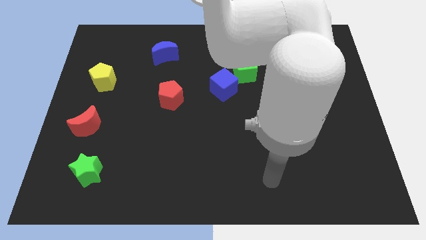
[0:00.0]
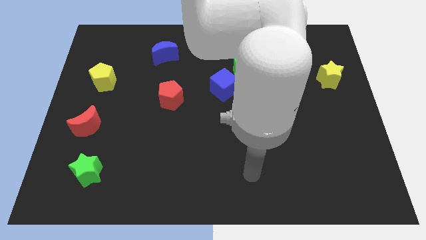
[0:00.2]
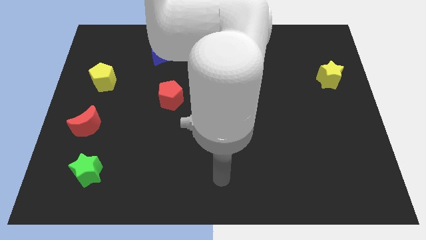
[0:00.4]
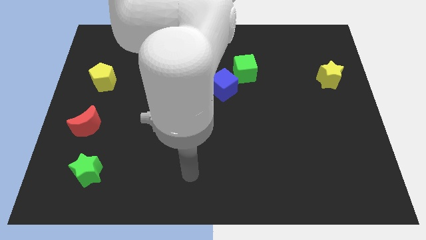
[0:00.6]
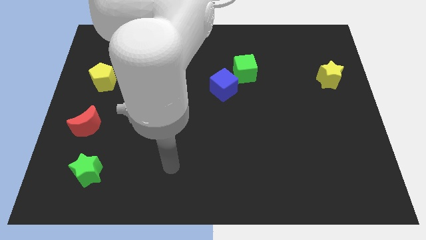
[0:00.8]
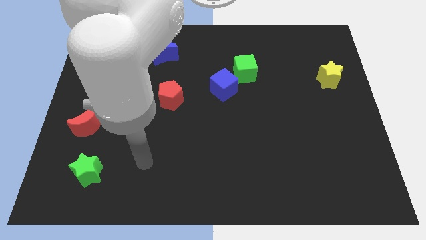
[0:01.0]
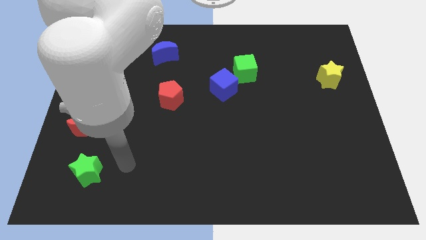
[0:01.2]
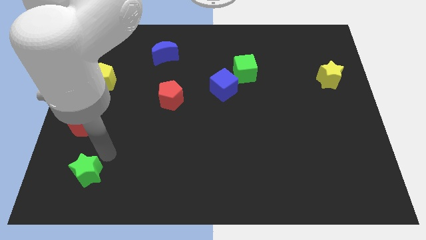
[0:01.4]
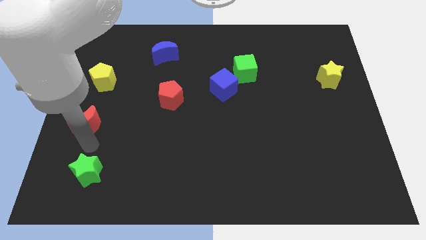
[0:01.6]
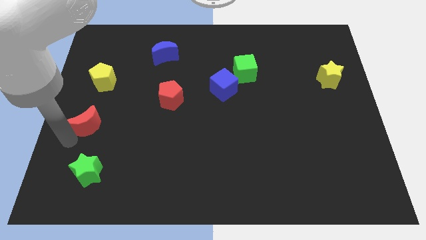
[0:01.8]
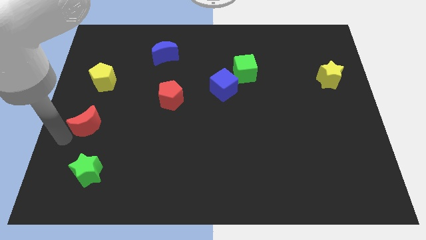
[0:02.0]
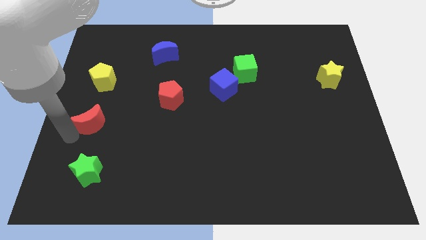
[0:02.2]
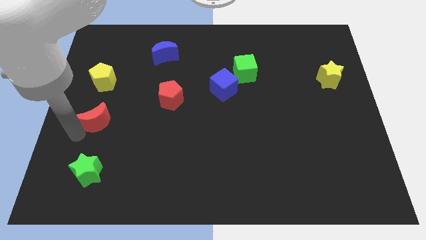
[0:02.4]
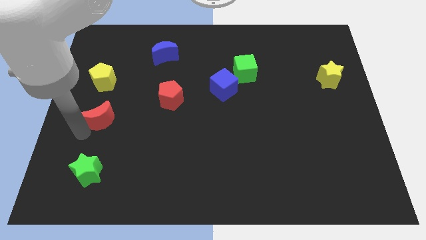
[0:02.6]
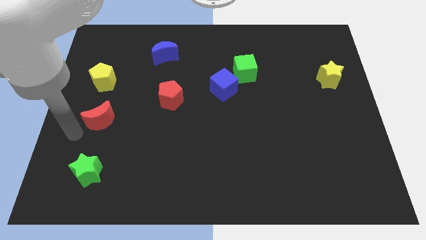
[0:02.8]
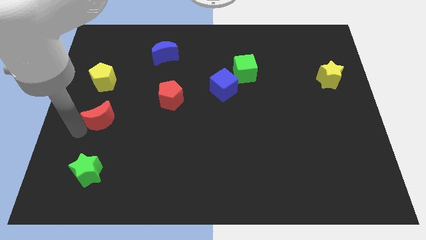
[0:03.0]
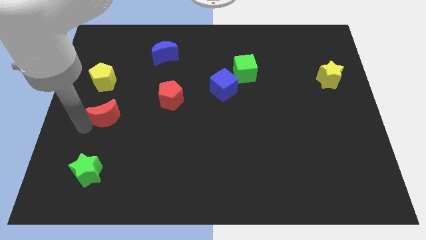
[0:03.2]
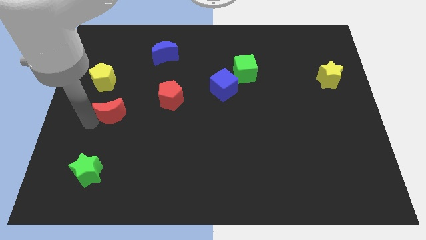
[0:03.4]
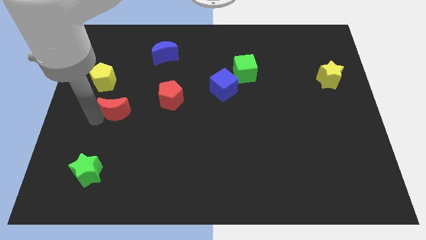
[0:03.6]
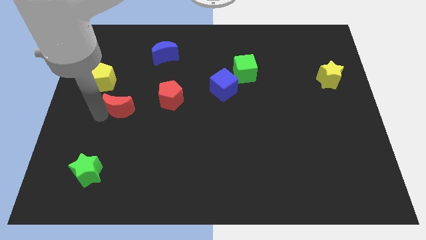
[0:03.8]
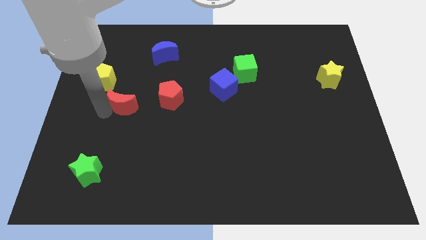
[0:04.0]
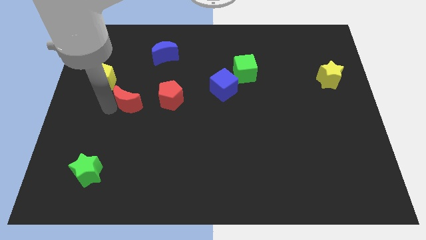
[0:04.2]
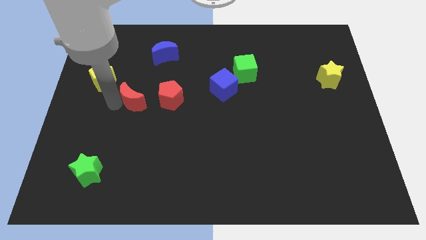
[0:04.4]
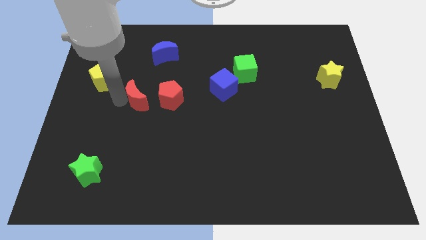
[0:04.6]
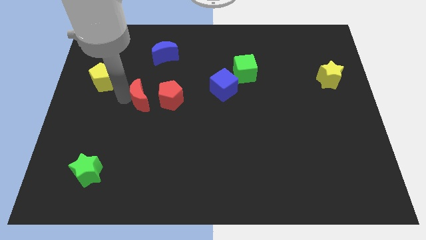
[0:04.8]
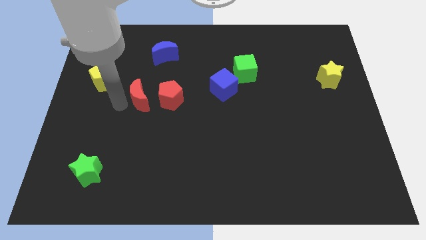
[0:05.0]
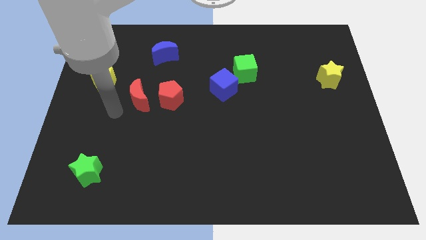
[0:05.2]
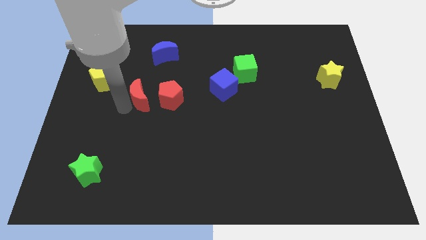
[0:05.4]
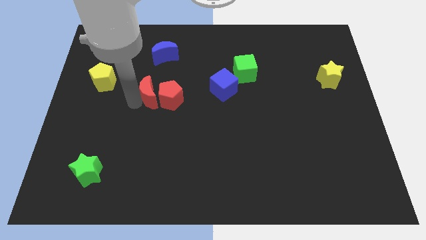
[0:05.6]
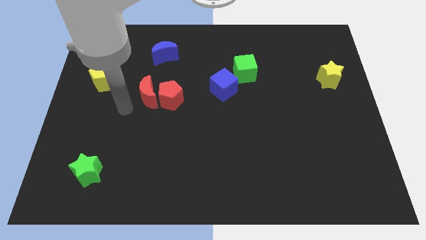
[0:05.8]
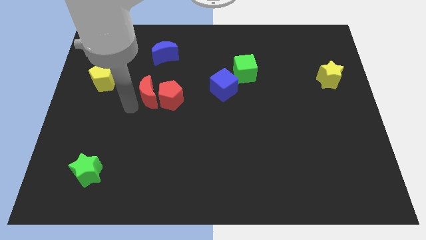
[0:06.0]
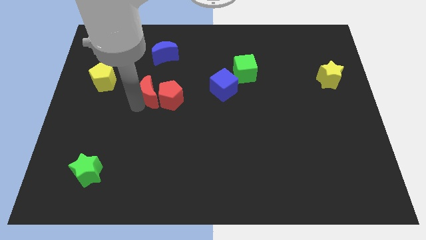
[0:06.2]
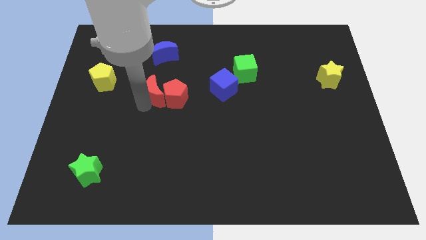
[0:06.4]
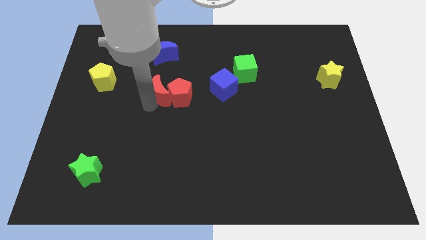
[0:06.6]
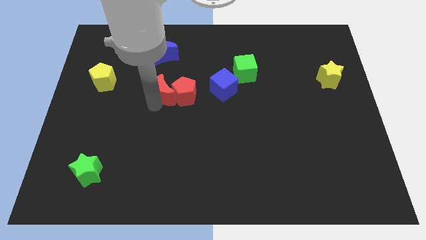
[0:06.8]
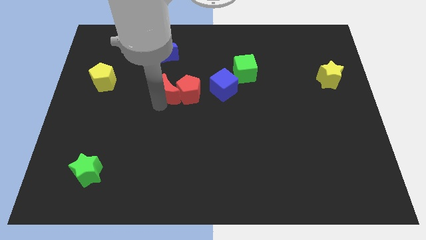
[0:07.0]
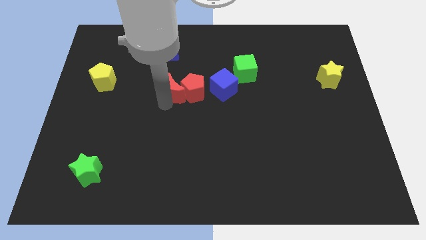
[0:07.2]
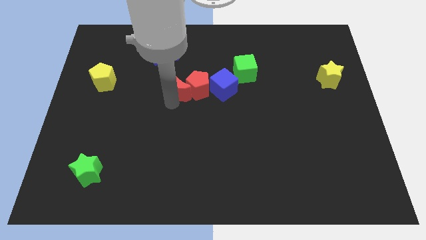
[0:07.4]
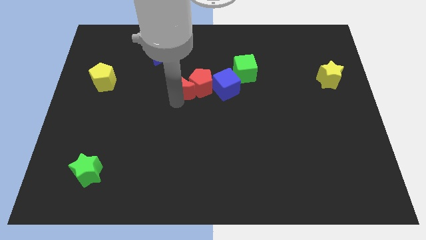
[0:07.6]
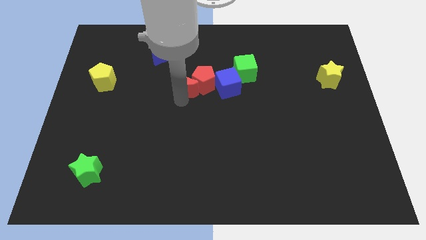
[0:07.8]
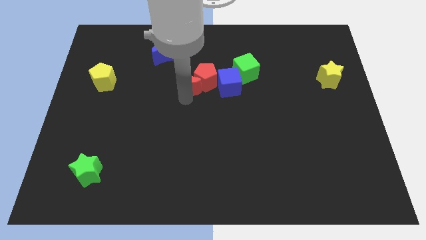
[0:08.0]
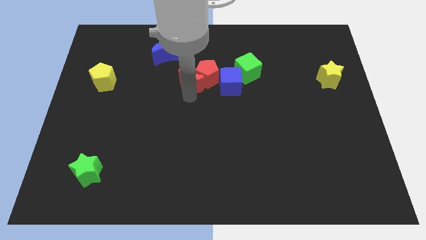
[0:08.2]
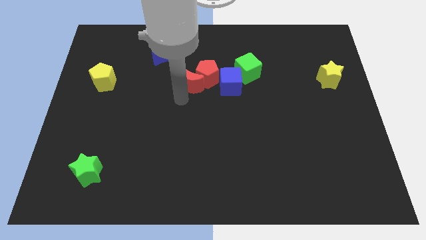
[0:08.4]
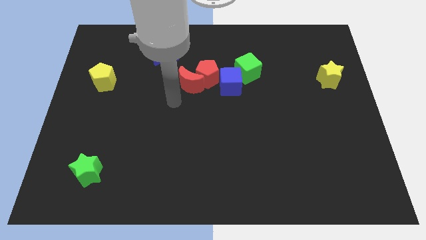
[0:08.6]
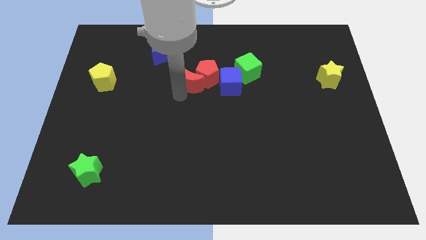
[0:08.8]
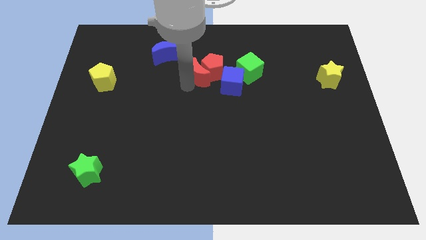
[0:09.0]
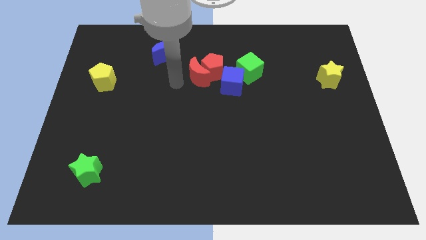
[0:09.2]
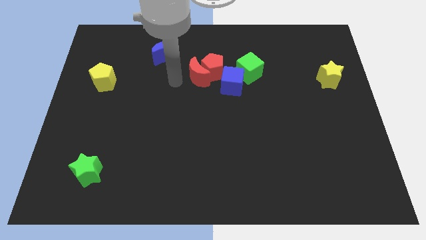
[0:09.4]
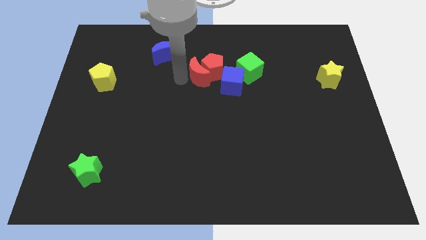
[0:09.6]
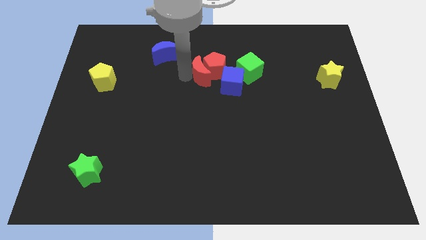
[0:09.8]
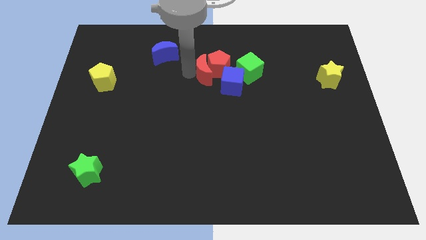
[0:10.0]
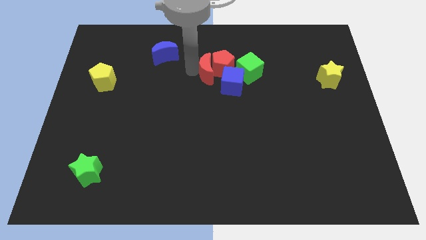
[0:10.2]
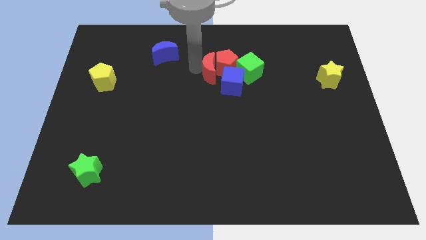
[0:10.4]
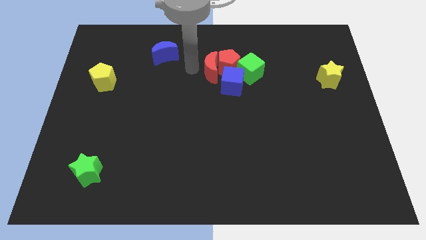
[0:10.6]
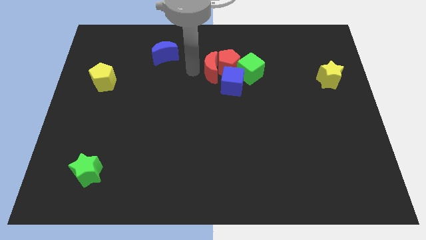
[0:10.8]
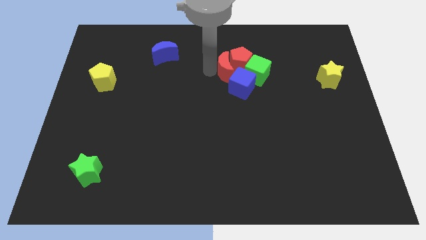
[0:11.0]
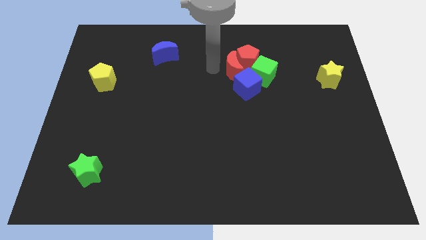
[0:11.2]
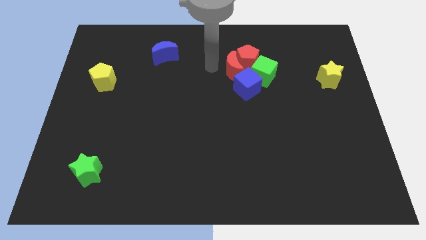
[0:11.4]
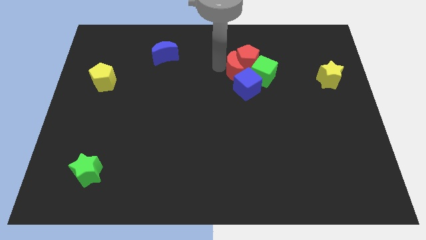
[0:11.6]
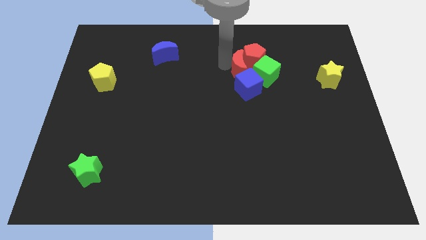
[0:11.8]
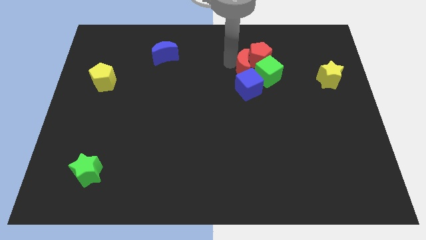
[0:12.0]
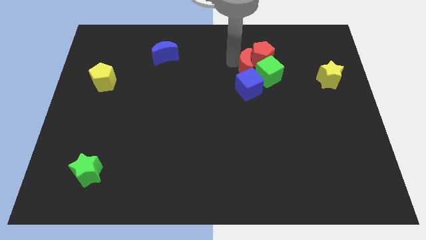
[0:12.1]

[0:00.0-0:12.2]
move the red moon to the green cube
